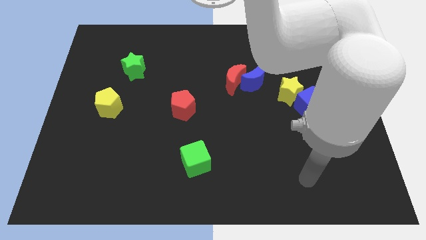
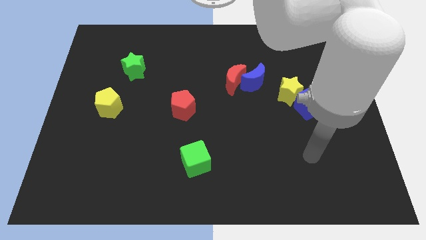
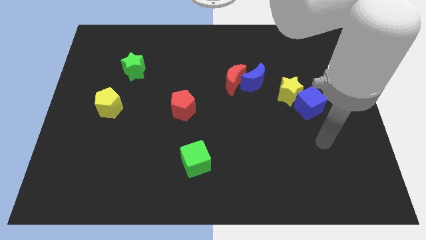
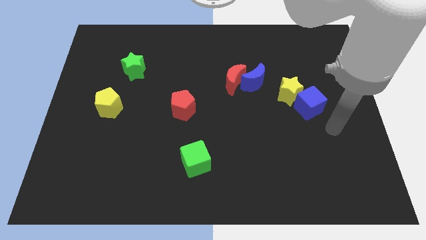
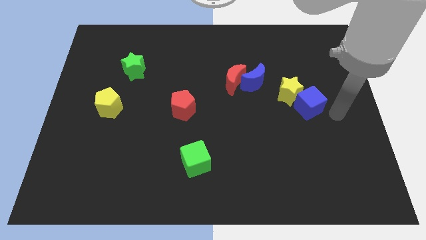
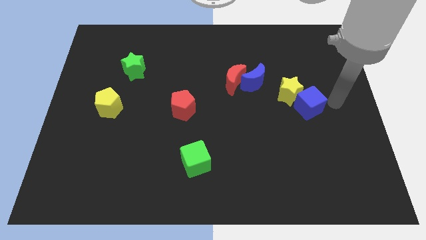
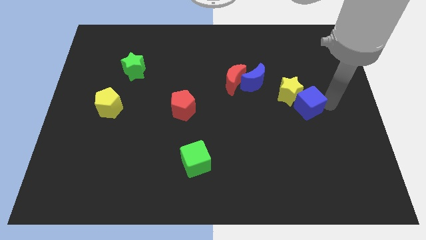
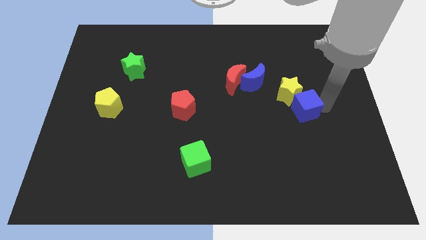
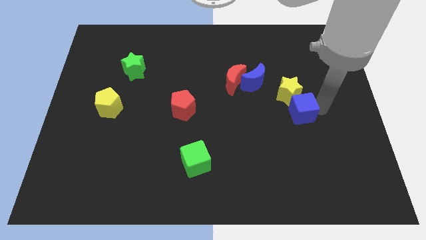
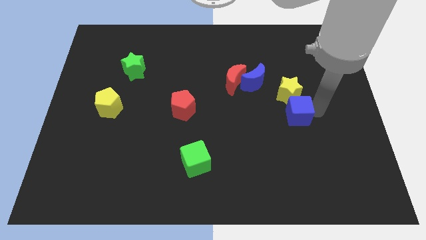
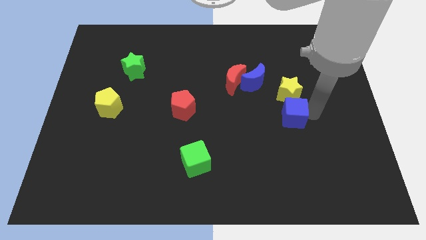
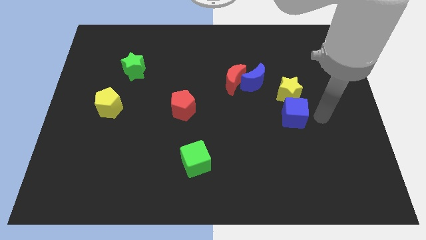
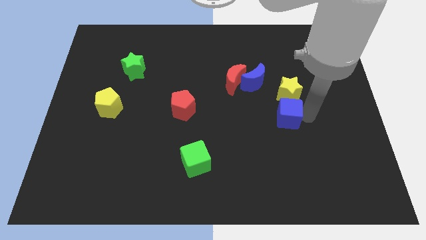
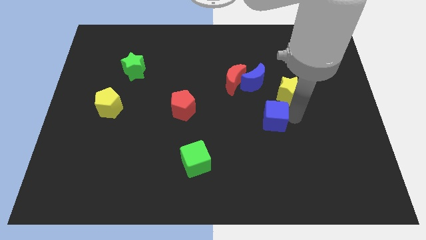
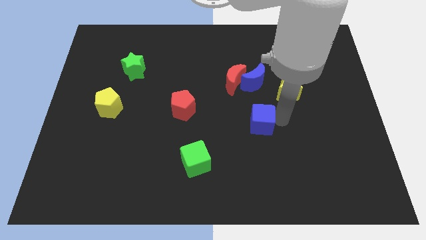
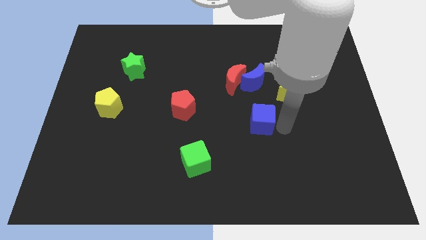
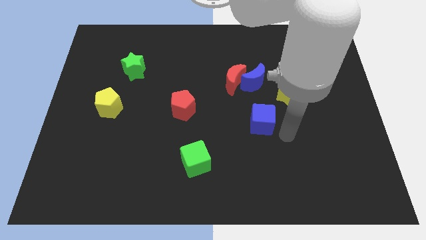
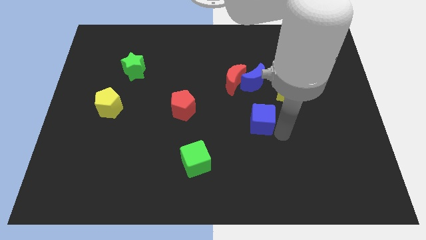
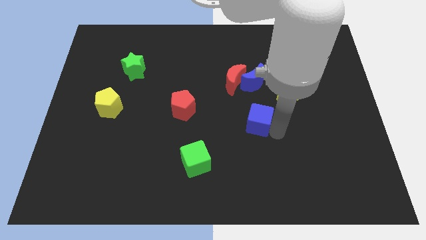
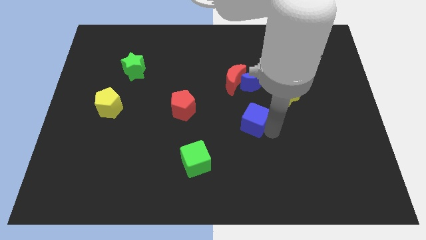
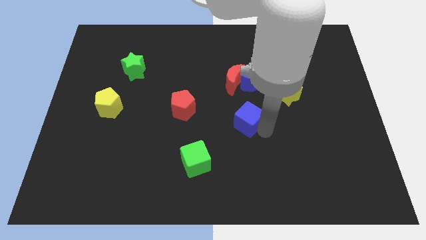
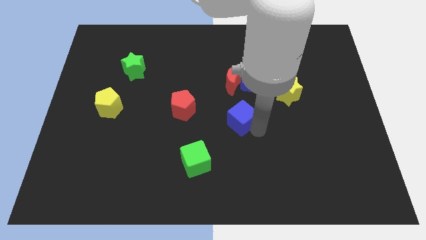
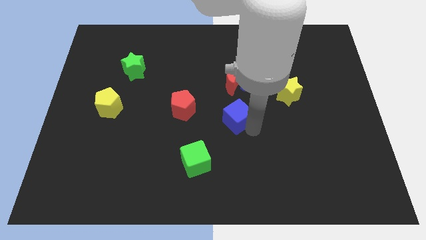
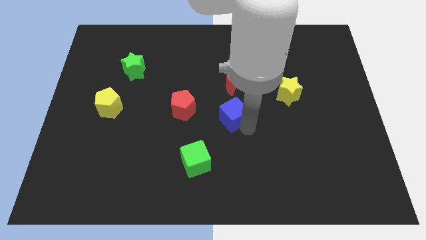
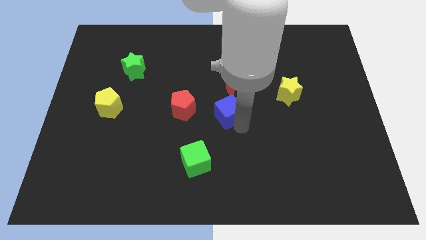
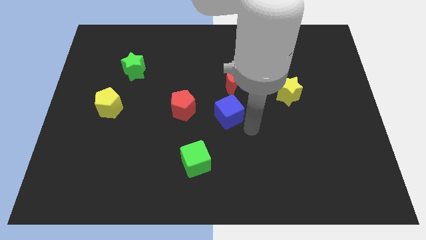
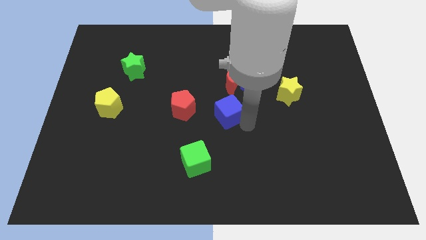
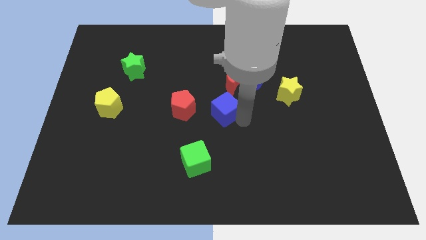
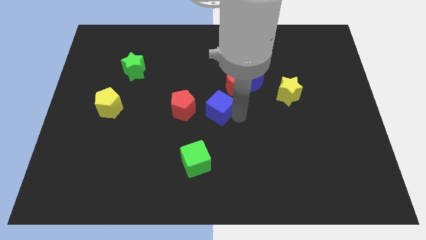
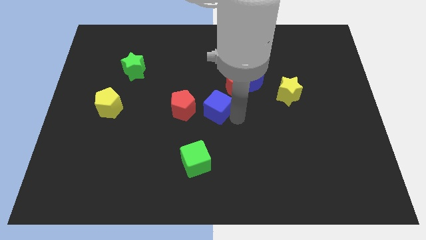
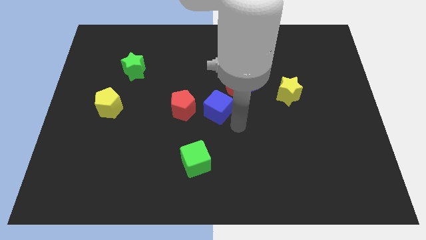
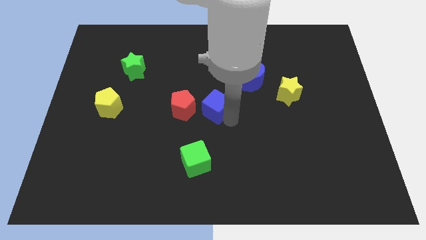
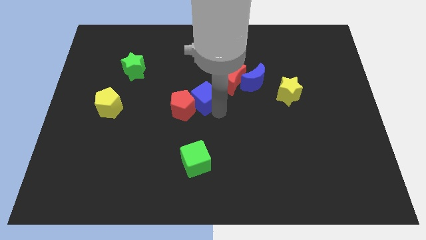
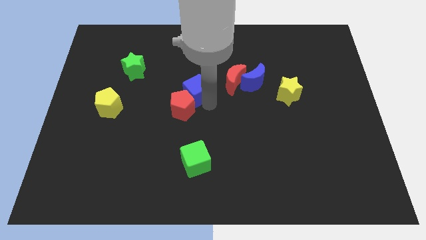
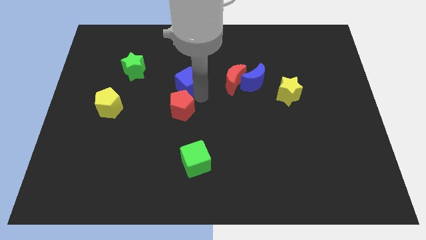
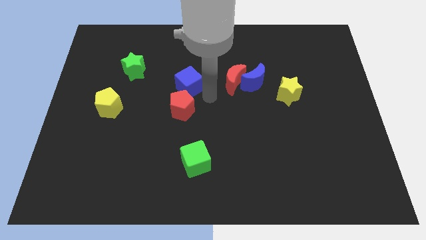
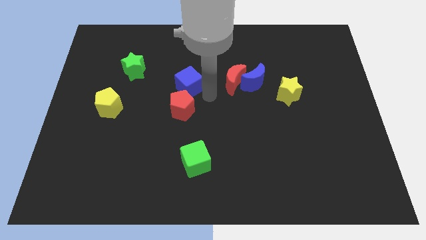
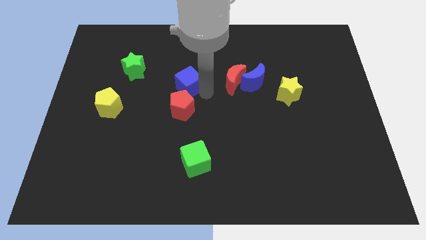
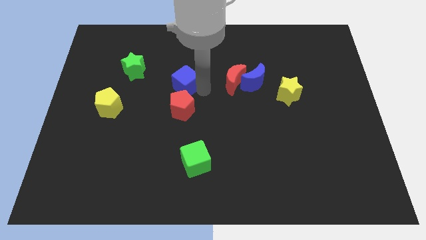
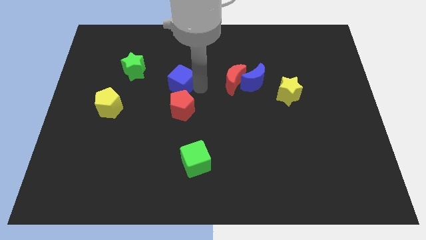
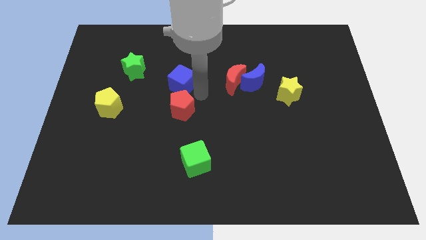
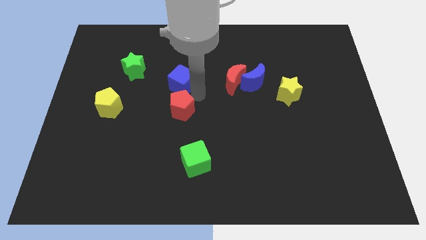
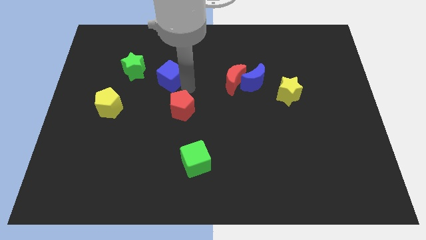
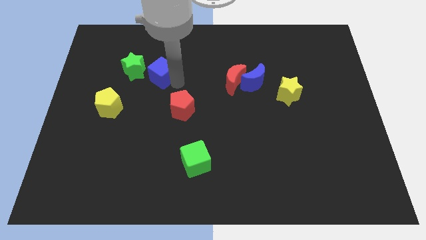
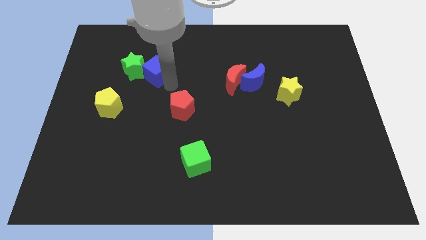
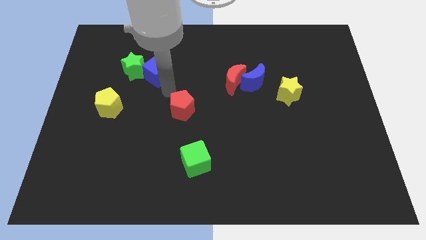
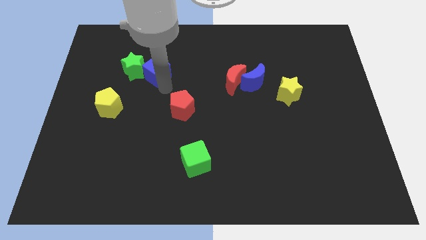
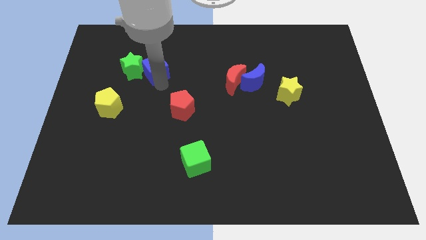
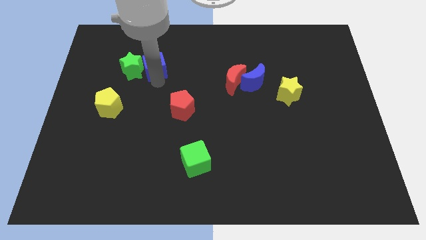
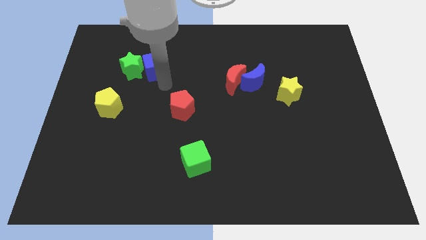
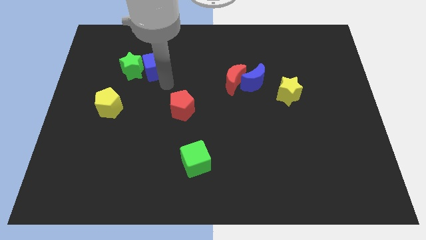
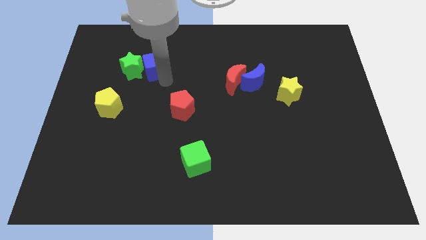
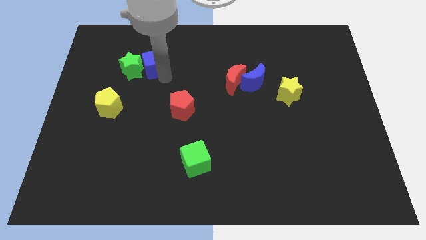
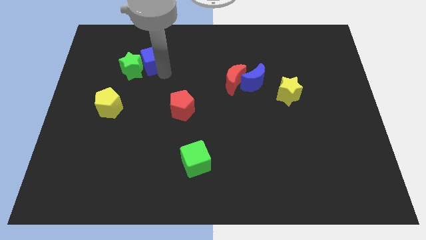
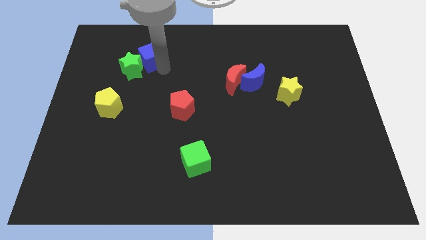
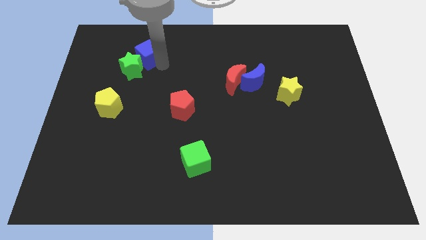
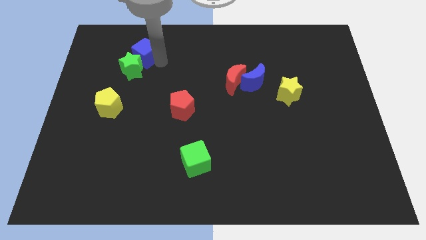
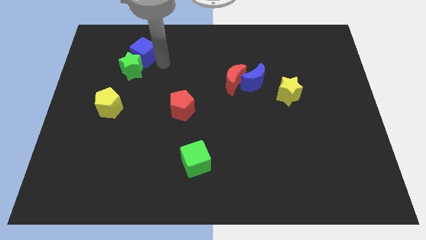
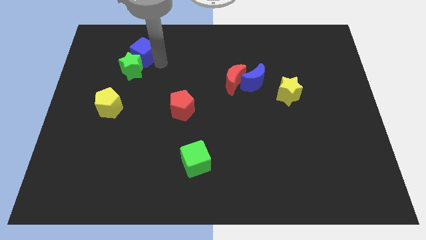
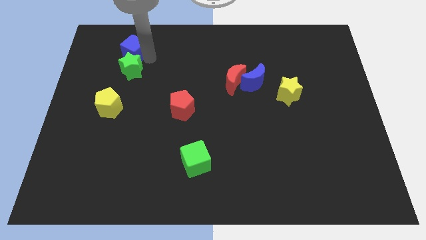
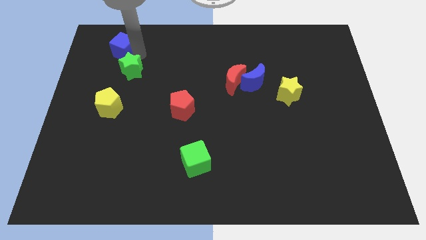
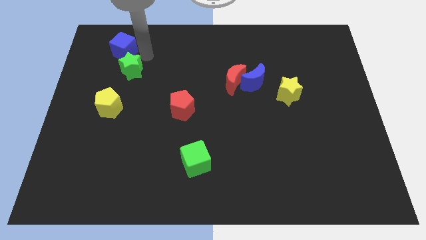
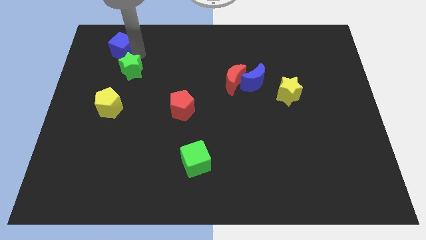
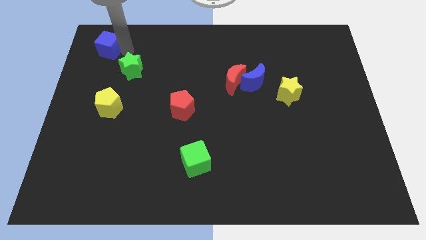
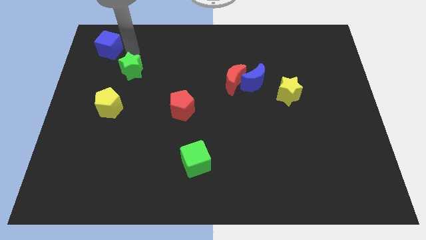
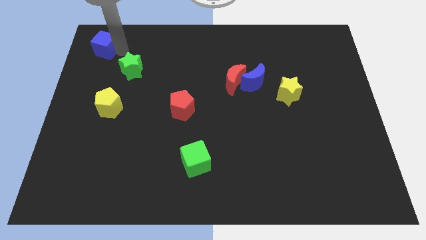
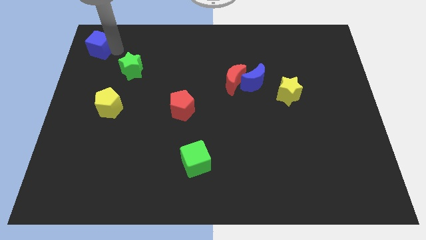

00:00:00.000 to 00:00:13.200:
push the blue cube to the upper left corner
